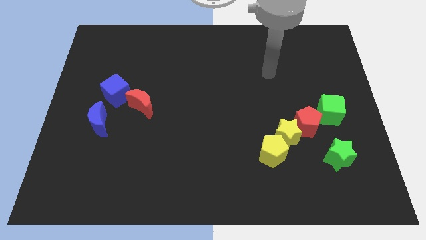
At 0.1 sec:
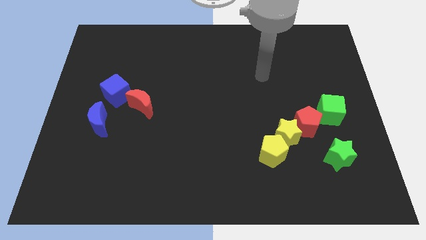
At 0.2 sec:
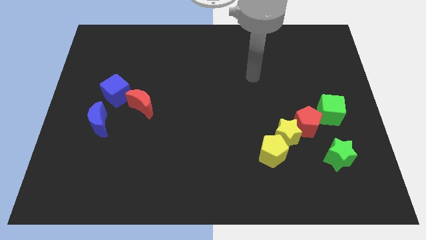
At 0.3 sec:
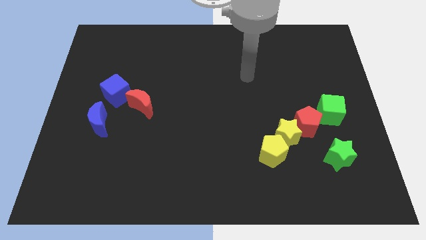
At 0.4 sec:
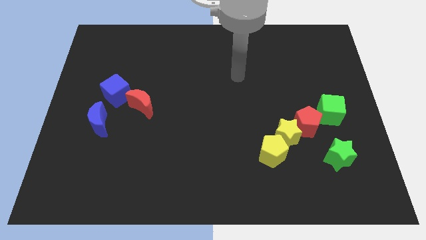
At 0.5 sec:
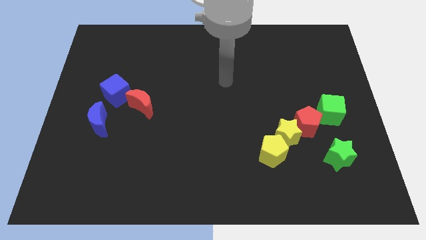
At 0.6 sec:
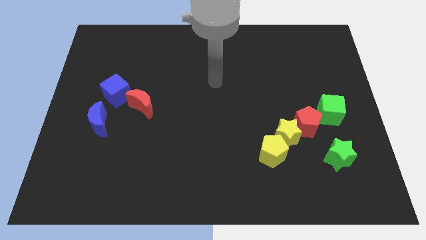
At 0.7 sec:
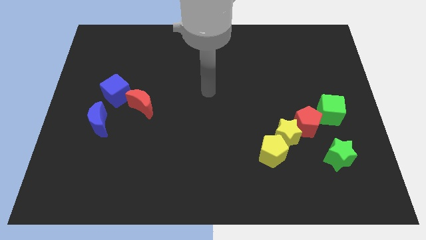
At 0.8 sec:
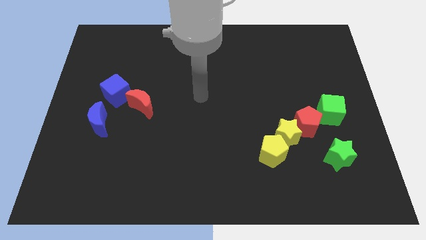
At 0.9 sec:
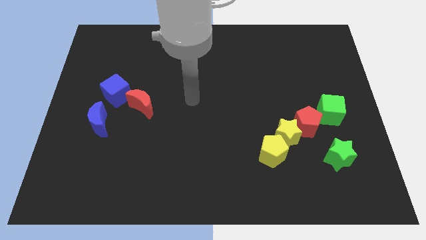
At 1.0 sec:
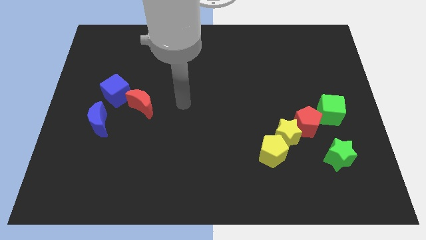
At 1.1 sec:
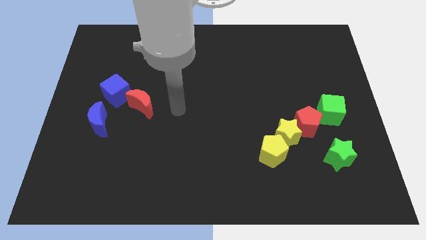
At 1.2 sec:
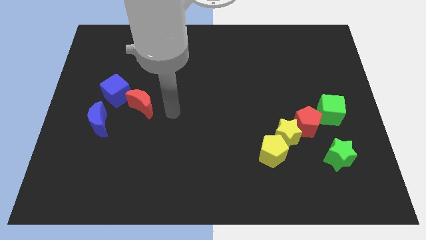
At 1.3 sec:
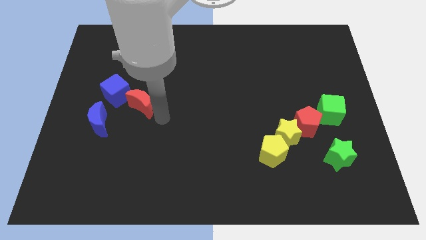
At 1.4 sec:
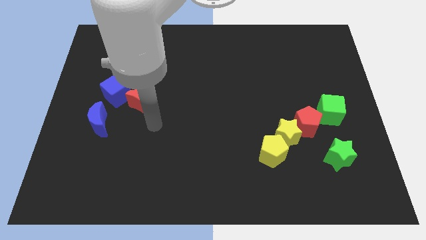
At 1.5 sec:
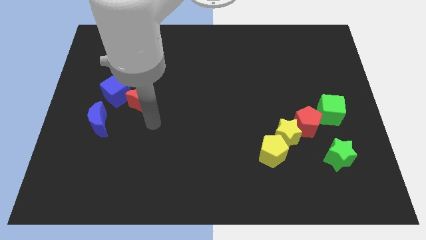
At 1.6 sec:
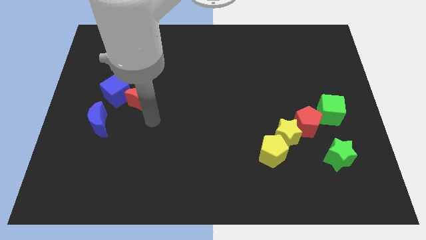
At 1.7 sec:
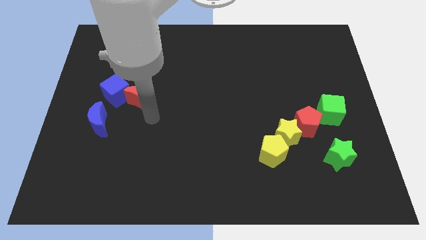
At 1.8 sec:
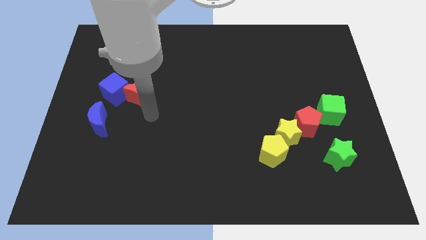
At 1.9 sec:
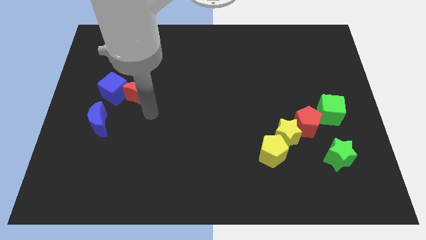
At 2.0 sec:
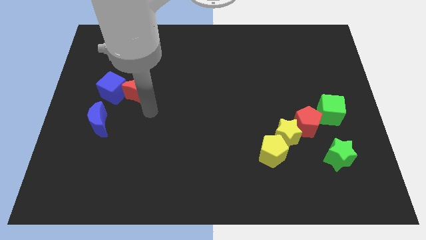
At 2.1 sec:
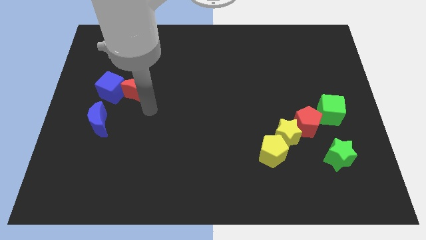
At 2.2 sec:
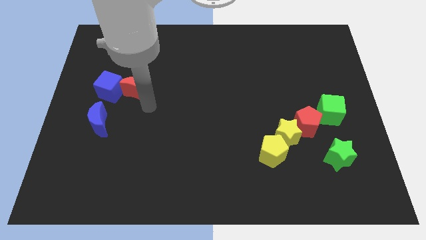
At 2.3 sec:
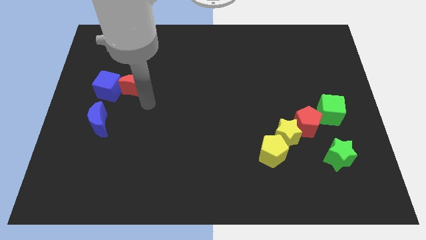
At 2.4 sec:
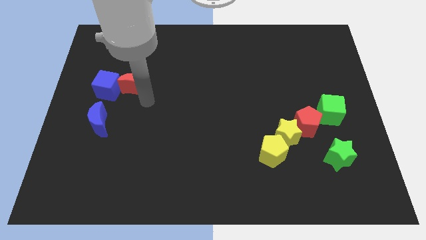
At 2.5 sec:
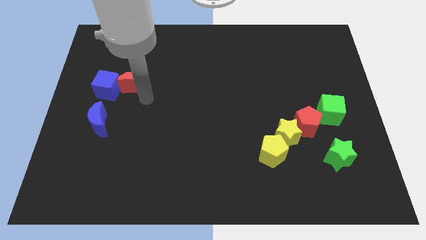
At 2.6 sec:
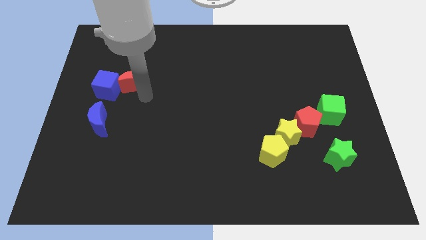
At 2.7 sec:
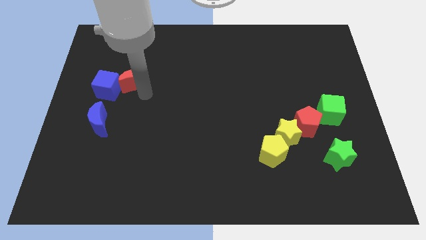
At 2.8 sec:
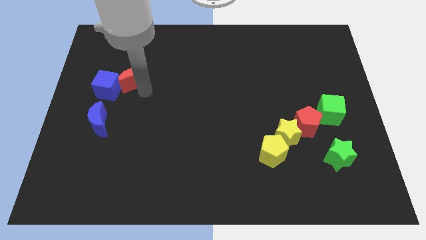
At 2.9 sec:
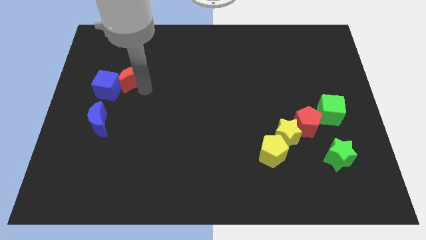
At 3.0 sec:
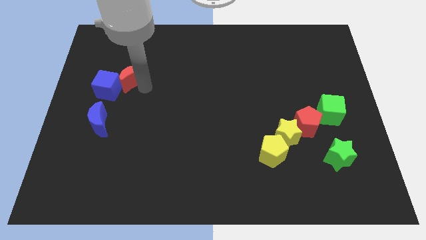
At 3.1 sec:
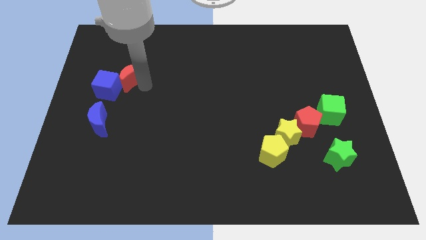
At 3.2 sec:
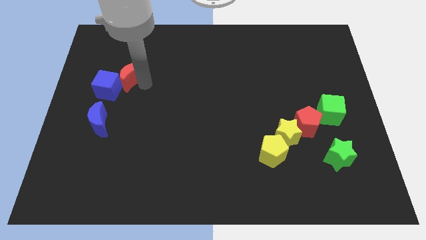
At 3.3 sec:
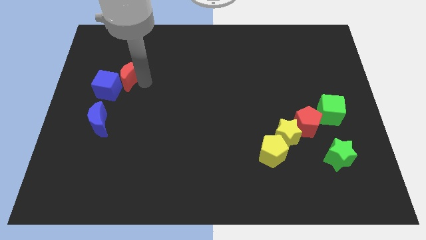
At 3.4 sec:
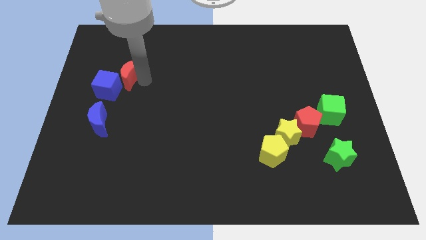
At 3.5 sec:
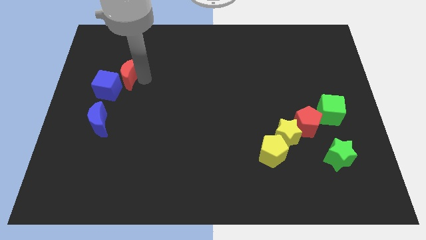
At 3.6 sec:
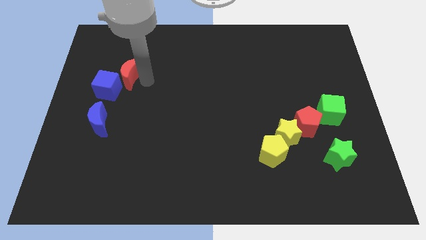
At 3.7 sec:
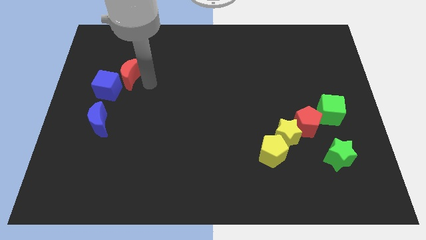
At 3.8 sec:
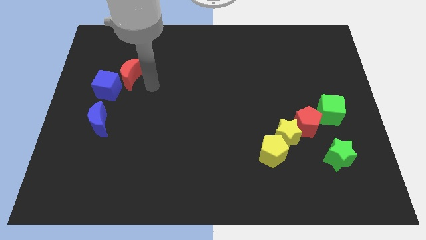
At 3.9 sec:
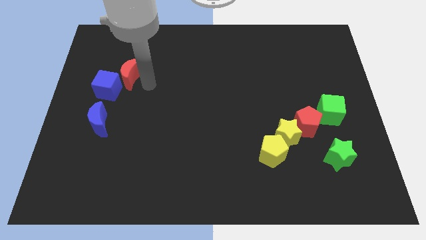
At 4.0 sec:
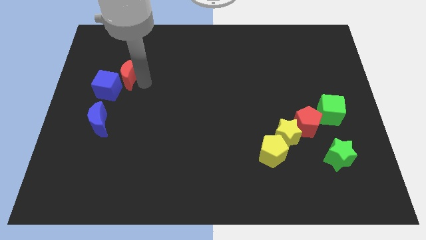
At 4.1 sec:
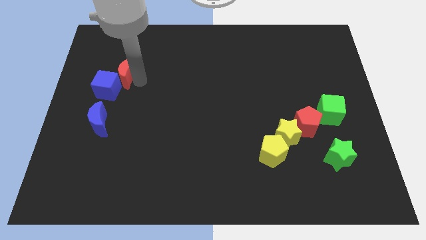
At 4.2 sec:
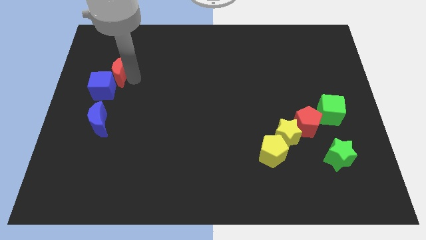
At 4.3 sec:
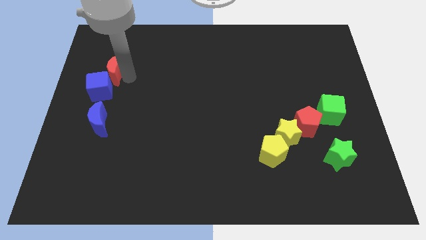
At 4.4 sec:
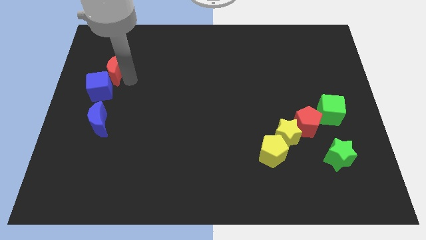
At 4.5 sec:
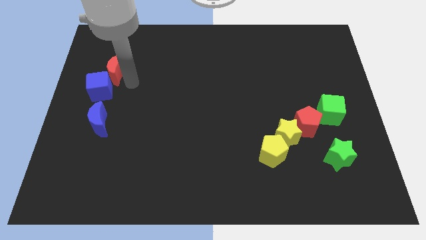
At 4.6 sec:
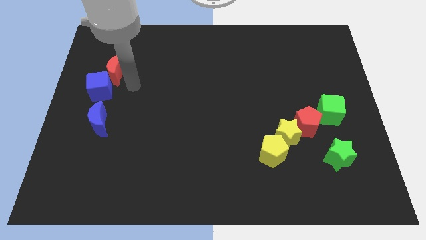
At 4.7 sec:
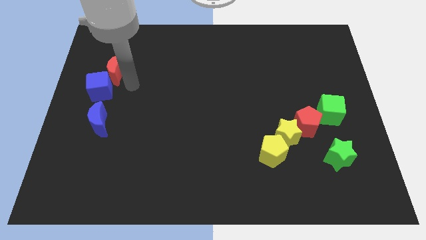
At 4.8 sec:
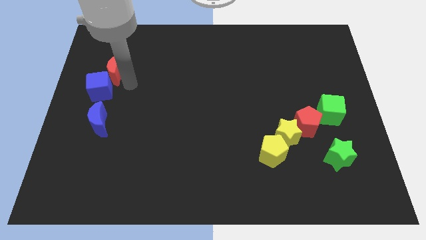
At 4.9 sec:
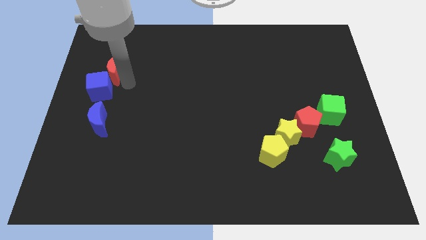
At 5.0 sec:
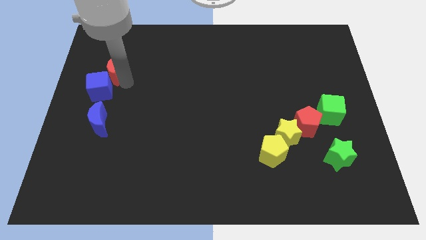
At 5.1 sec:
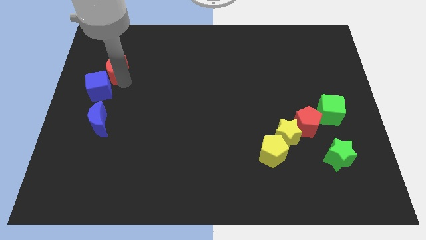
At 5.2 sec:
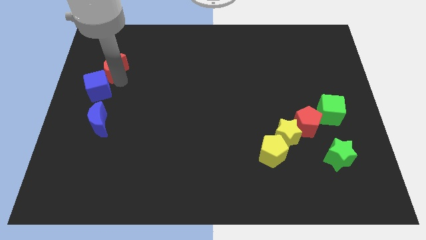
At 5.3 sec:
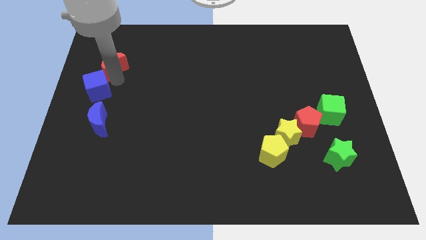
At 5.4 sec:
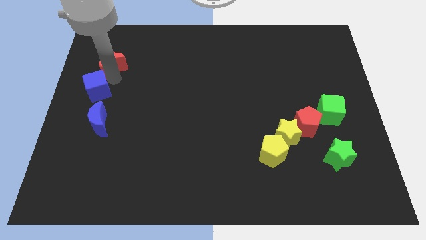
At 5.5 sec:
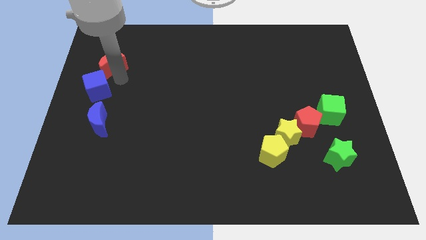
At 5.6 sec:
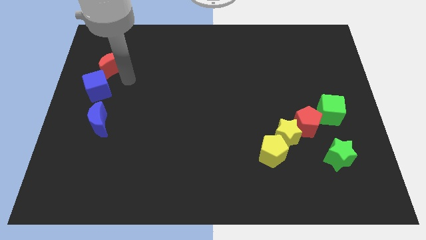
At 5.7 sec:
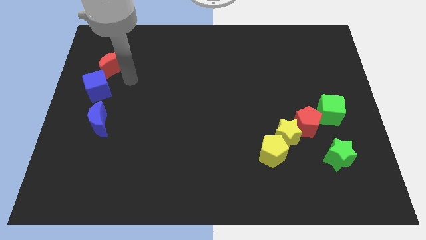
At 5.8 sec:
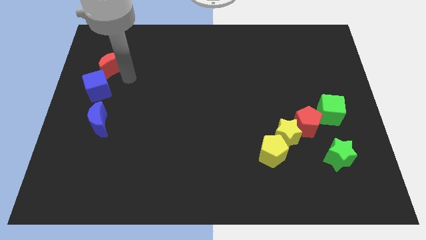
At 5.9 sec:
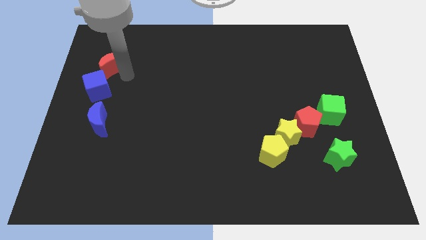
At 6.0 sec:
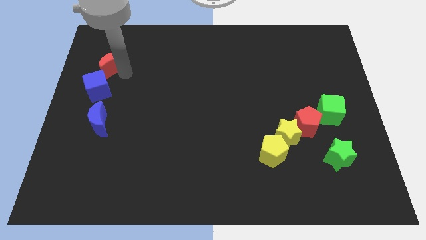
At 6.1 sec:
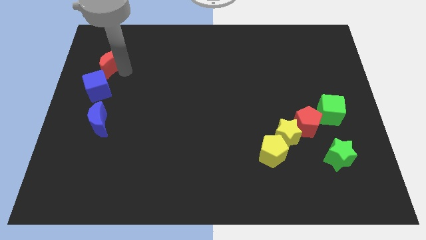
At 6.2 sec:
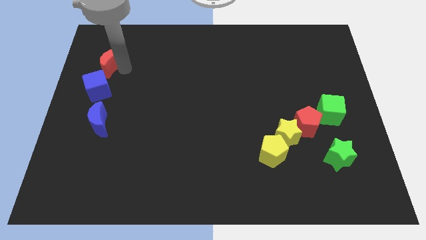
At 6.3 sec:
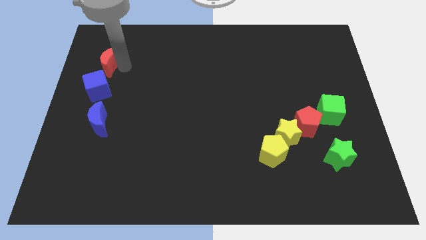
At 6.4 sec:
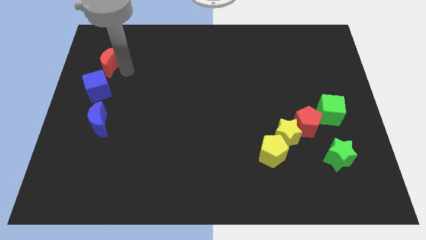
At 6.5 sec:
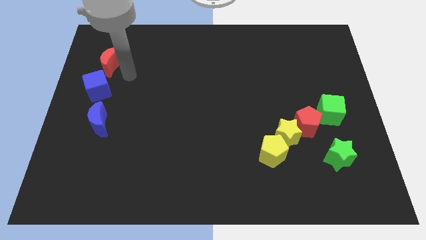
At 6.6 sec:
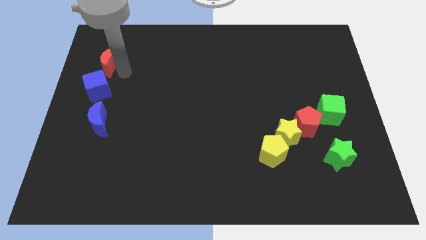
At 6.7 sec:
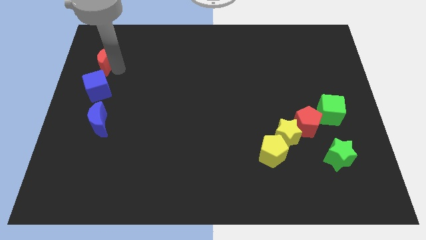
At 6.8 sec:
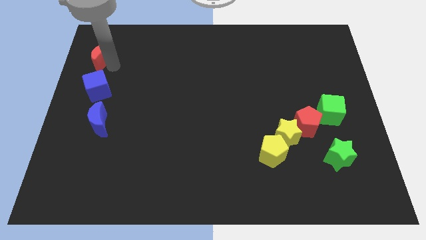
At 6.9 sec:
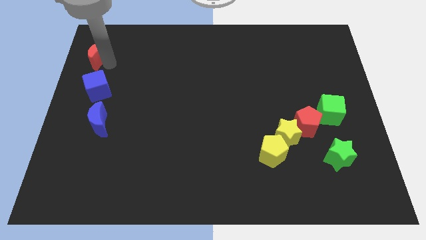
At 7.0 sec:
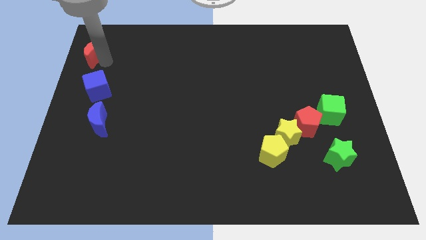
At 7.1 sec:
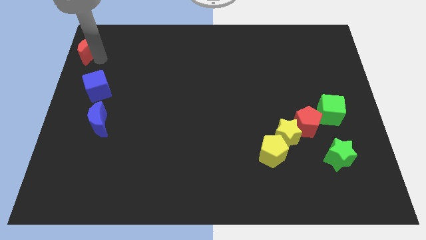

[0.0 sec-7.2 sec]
move the red moon to the top left of the board
